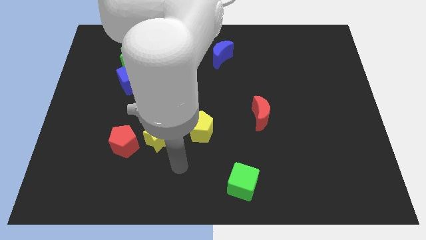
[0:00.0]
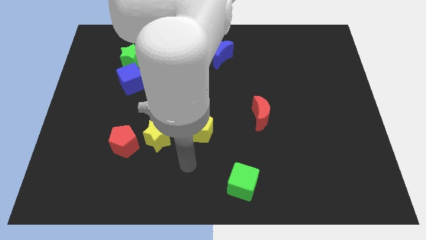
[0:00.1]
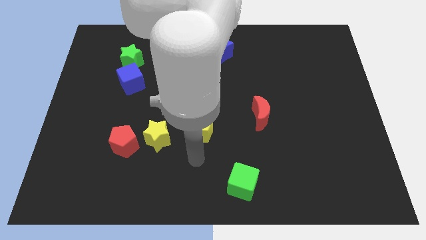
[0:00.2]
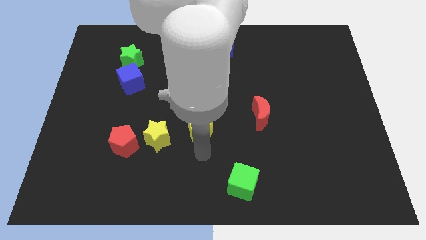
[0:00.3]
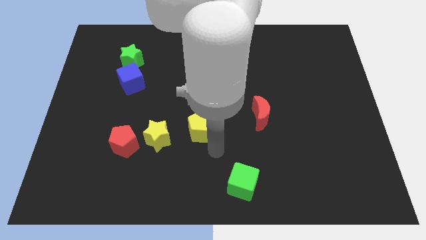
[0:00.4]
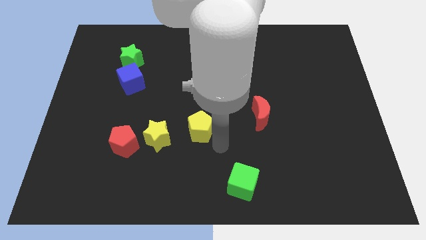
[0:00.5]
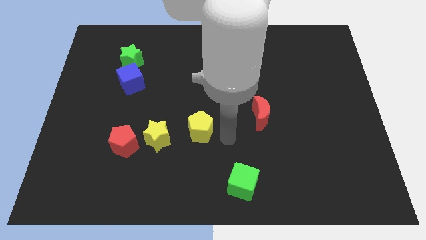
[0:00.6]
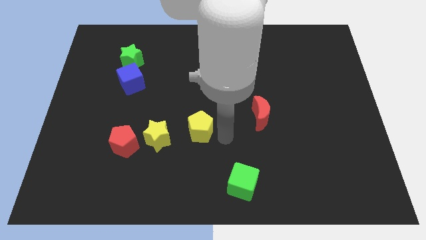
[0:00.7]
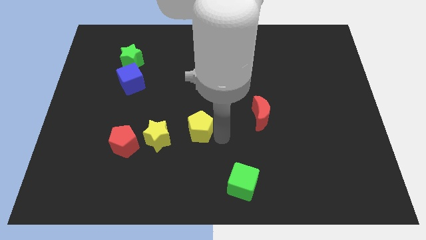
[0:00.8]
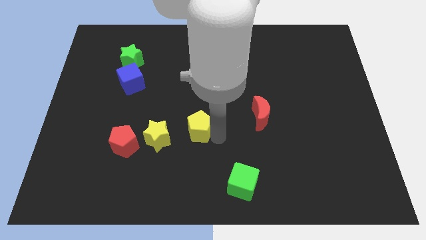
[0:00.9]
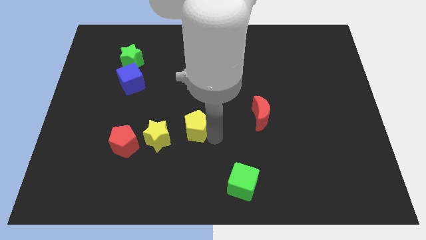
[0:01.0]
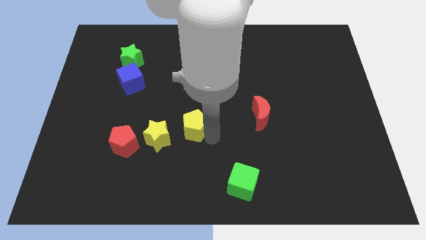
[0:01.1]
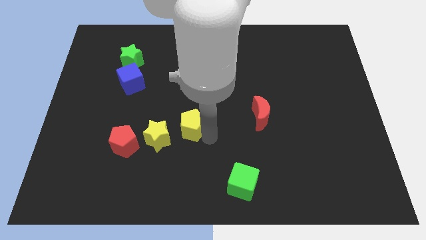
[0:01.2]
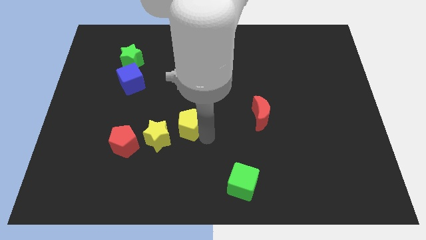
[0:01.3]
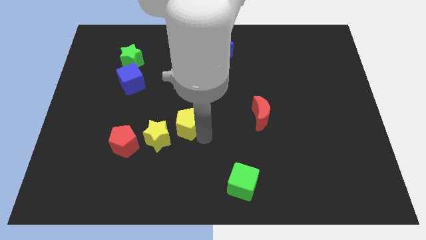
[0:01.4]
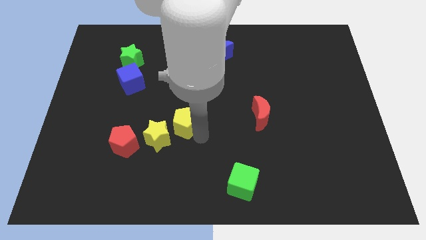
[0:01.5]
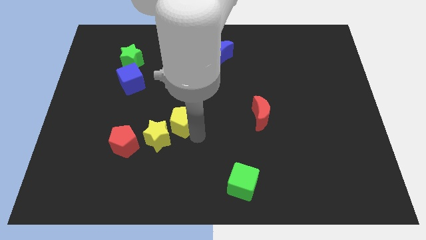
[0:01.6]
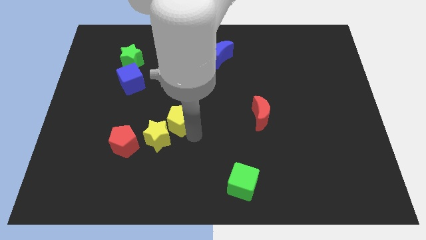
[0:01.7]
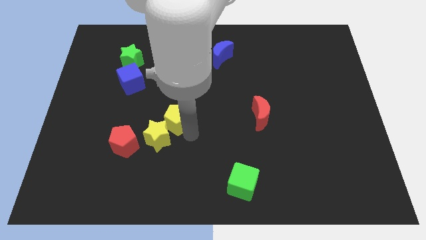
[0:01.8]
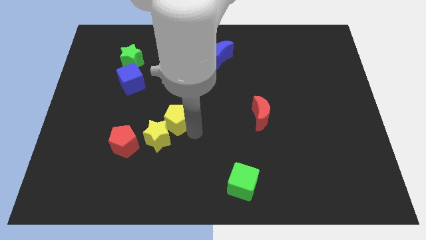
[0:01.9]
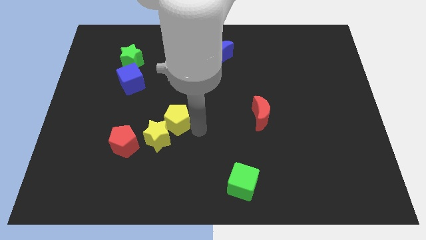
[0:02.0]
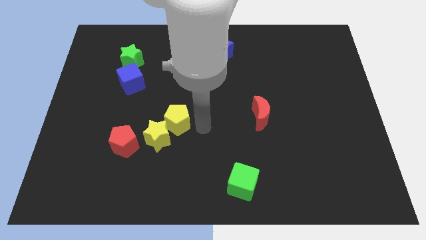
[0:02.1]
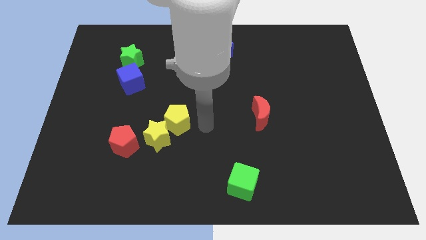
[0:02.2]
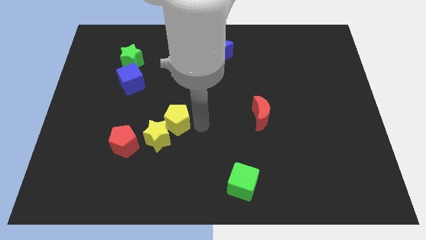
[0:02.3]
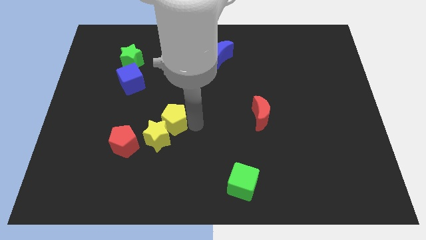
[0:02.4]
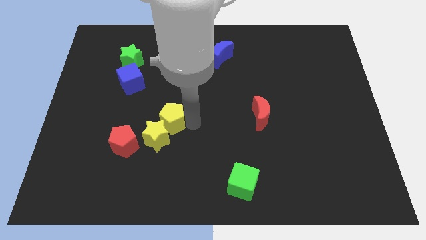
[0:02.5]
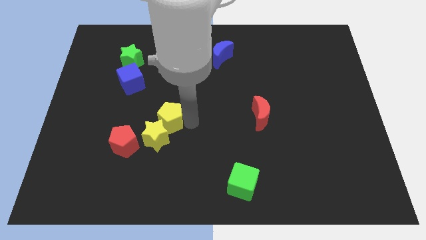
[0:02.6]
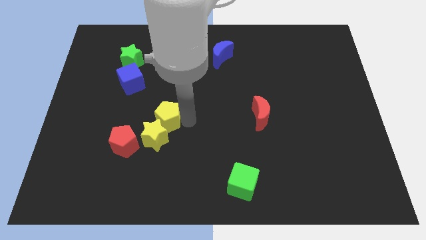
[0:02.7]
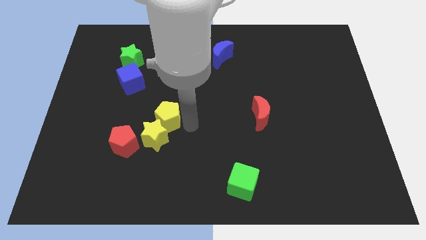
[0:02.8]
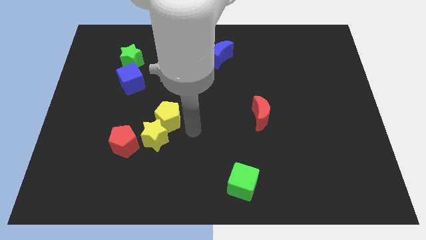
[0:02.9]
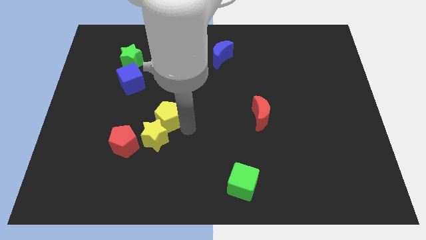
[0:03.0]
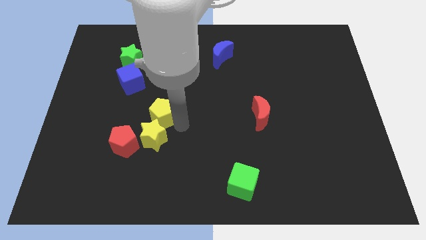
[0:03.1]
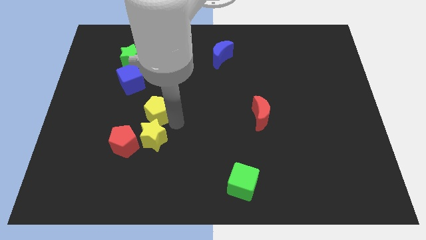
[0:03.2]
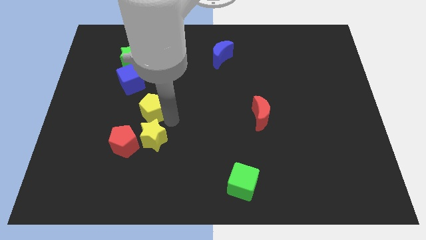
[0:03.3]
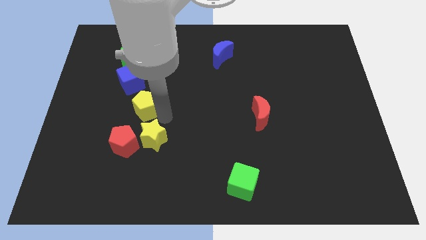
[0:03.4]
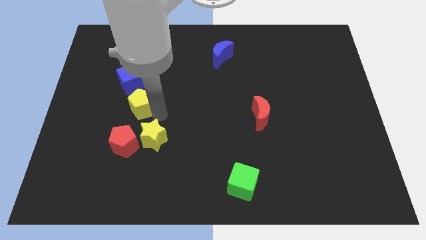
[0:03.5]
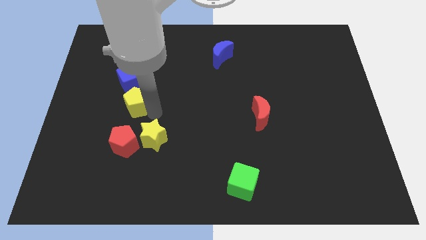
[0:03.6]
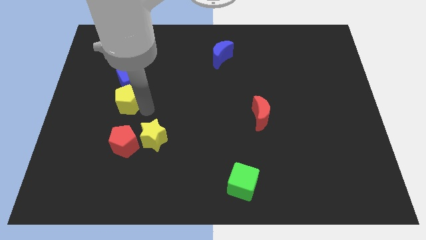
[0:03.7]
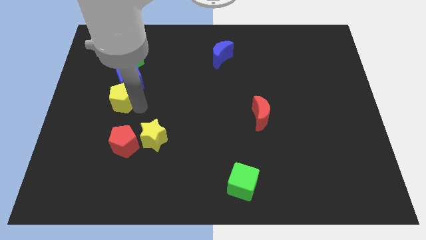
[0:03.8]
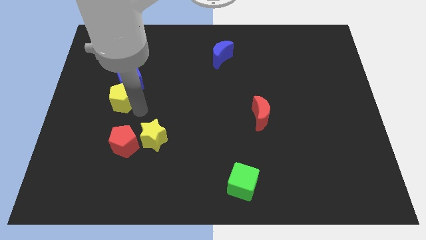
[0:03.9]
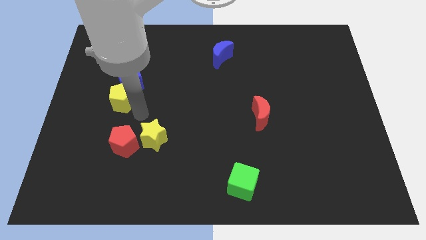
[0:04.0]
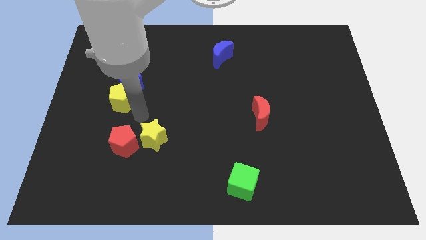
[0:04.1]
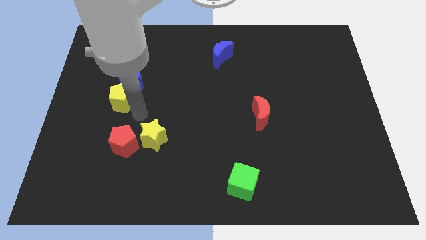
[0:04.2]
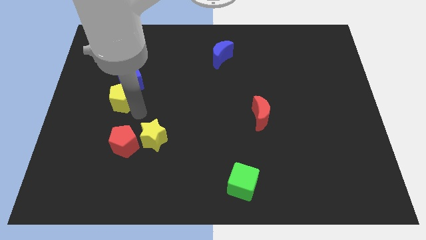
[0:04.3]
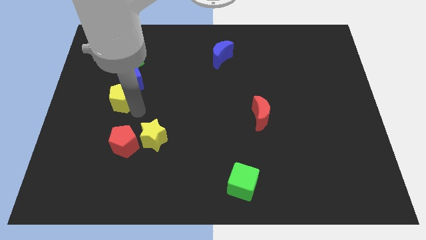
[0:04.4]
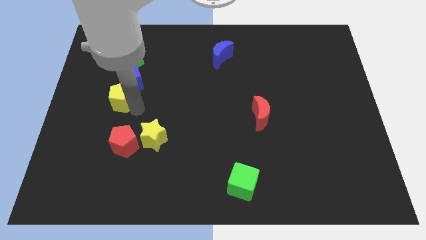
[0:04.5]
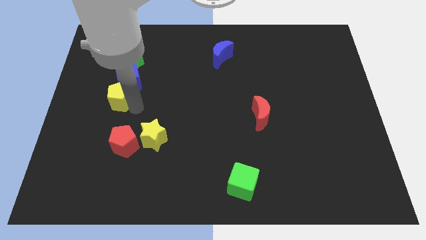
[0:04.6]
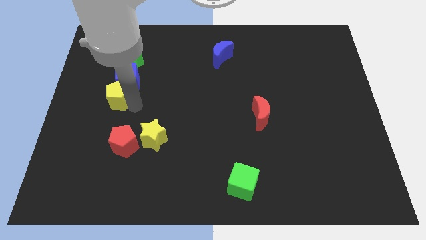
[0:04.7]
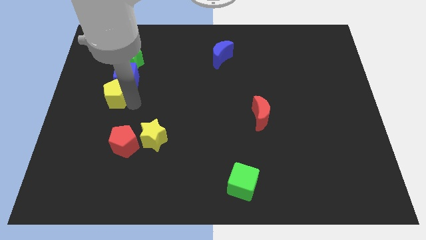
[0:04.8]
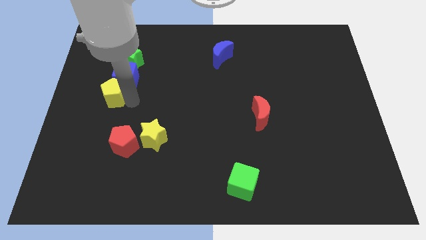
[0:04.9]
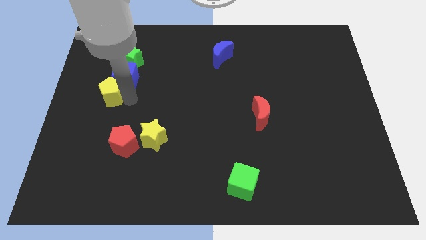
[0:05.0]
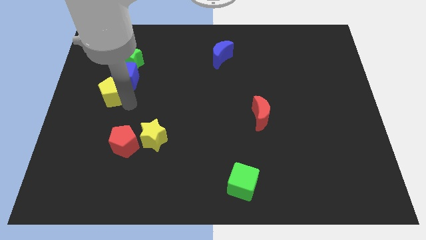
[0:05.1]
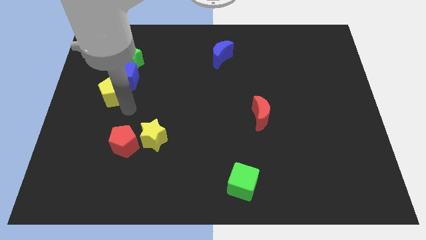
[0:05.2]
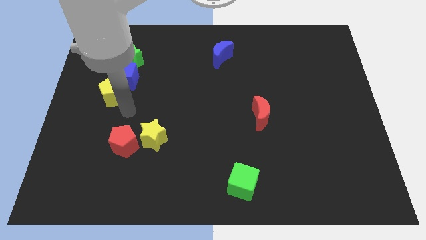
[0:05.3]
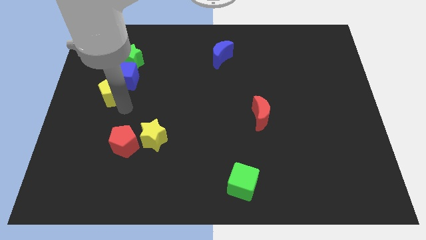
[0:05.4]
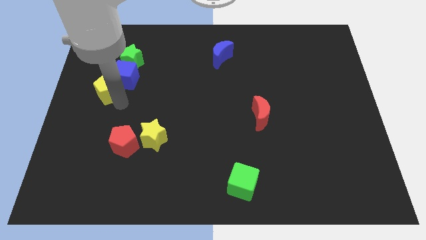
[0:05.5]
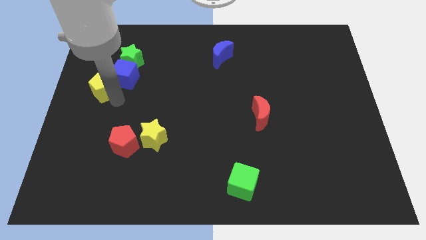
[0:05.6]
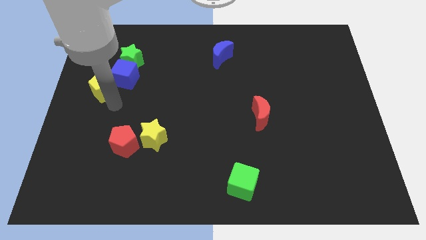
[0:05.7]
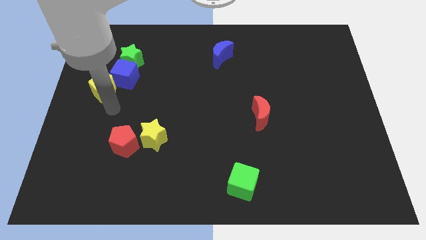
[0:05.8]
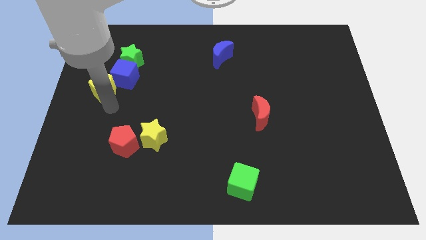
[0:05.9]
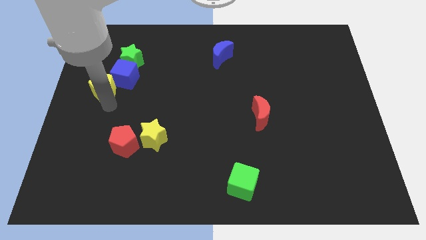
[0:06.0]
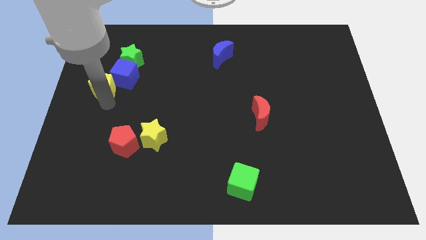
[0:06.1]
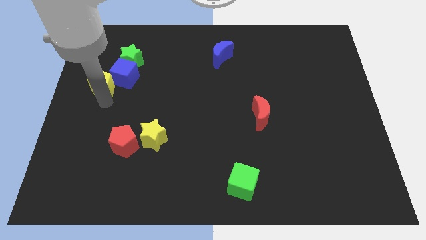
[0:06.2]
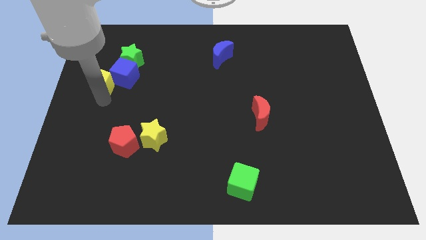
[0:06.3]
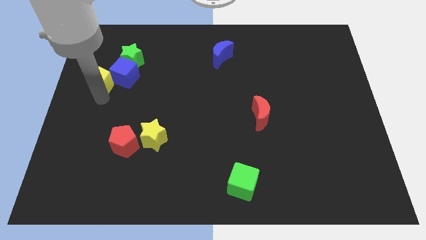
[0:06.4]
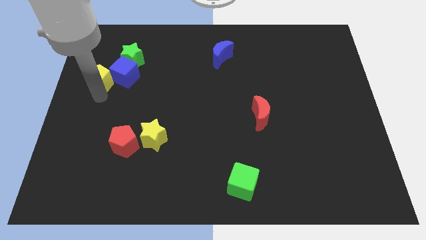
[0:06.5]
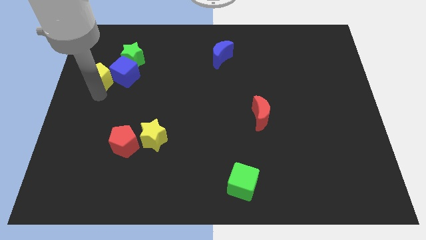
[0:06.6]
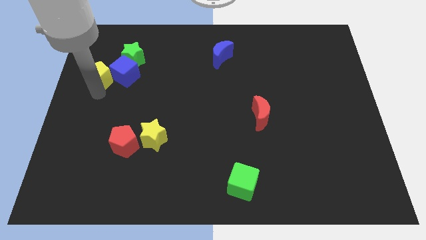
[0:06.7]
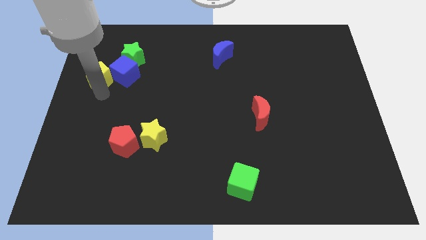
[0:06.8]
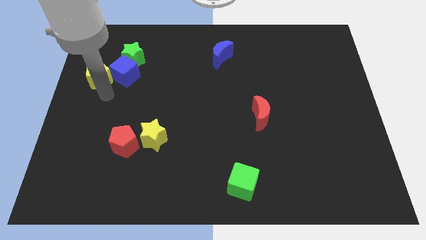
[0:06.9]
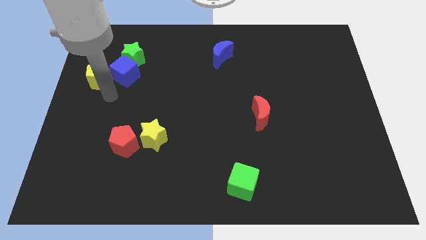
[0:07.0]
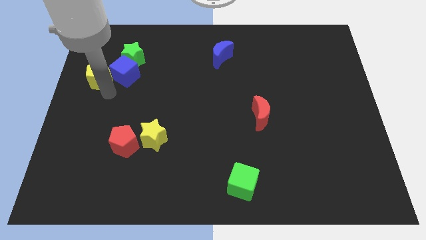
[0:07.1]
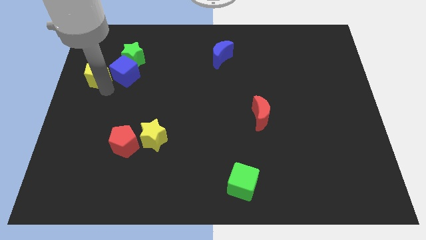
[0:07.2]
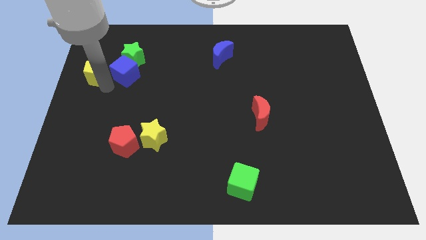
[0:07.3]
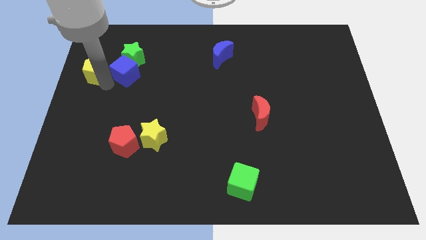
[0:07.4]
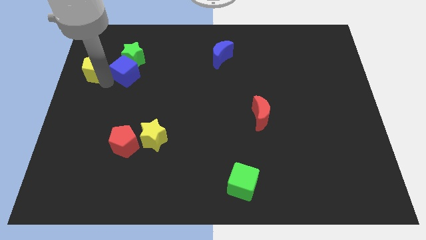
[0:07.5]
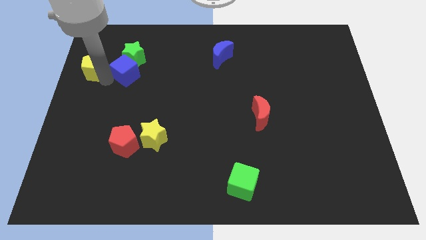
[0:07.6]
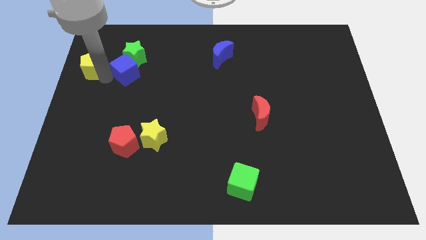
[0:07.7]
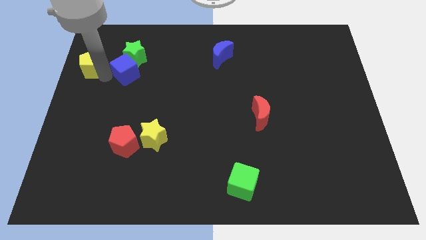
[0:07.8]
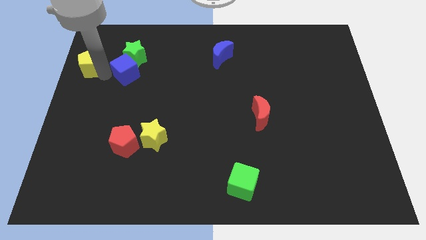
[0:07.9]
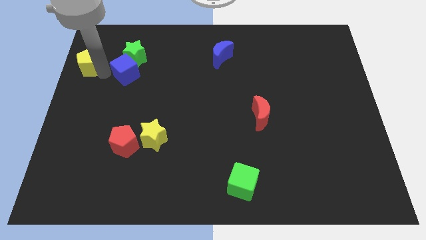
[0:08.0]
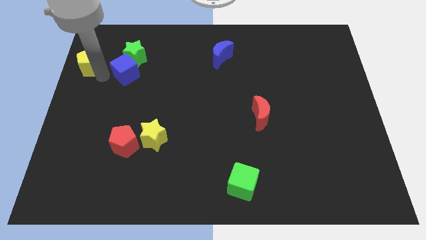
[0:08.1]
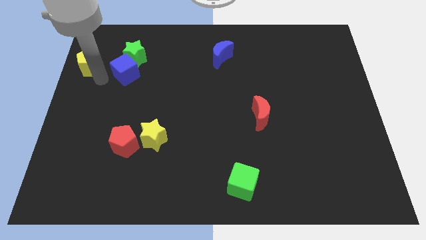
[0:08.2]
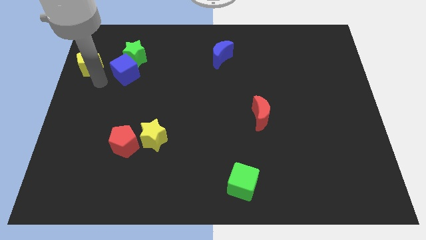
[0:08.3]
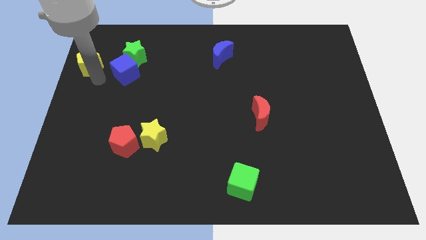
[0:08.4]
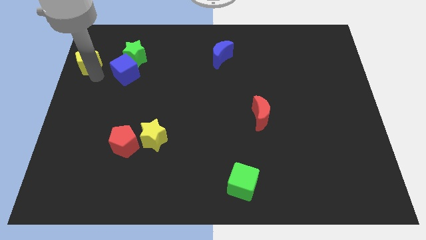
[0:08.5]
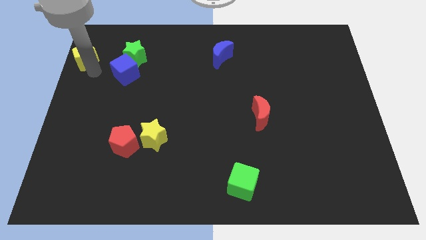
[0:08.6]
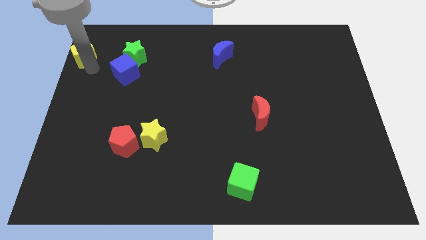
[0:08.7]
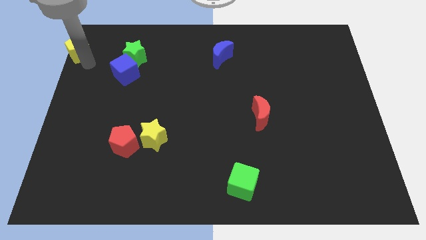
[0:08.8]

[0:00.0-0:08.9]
put the yellow pentagon to the top left
